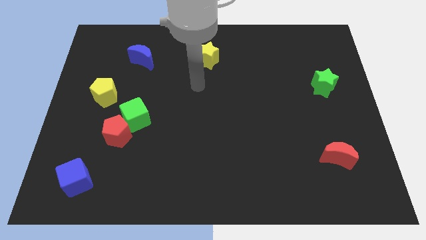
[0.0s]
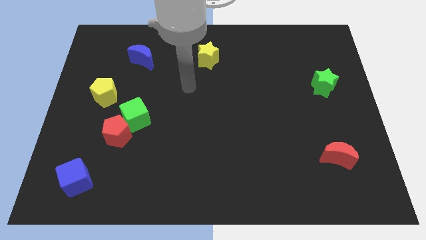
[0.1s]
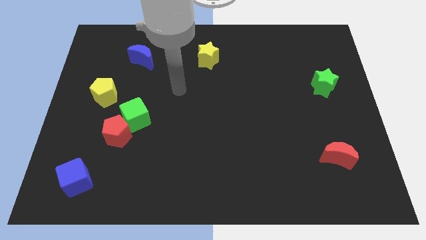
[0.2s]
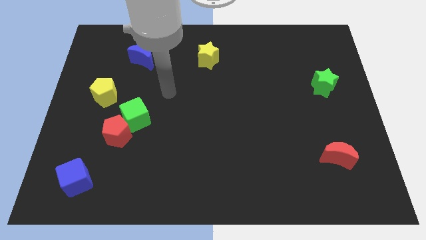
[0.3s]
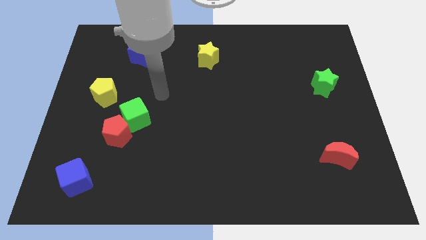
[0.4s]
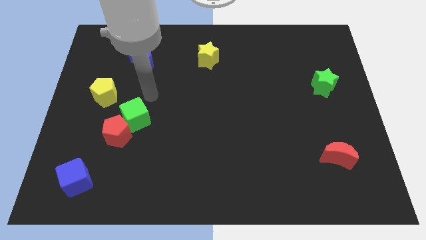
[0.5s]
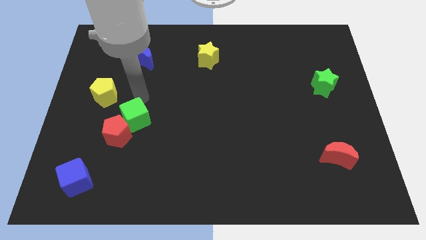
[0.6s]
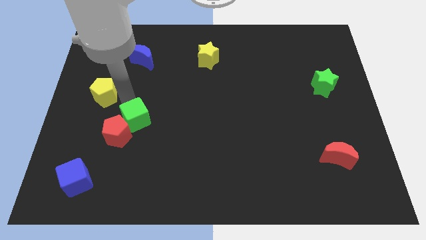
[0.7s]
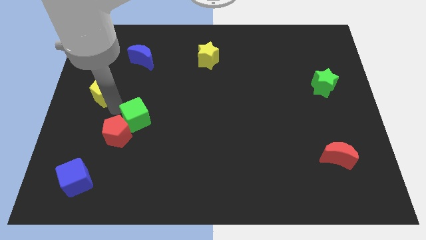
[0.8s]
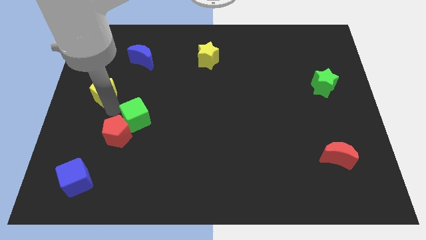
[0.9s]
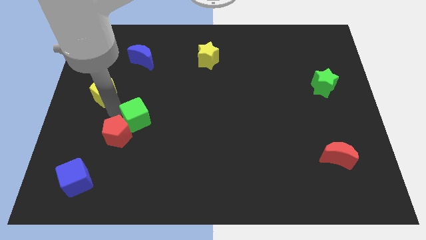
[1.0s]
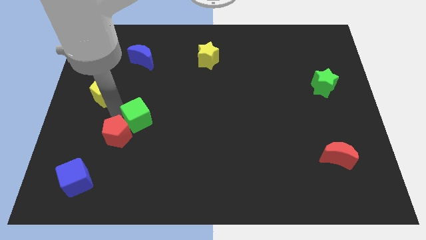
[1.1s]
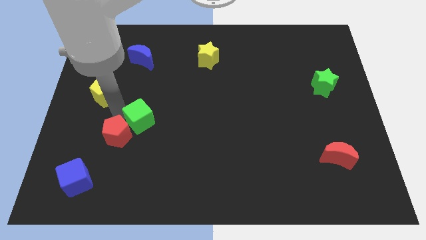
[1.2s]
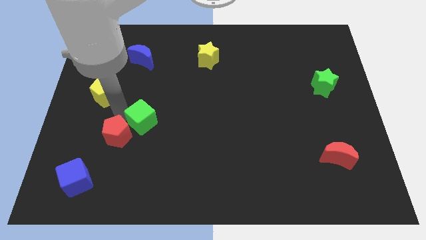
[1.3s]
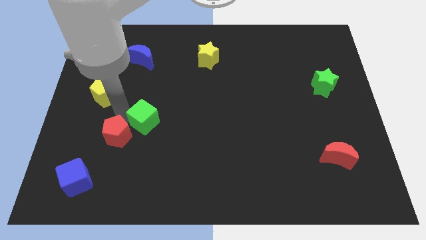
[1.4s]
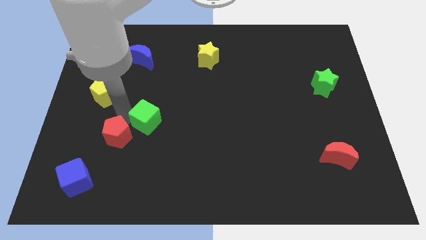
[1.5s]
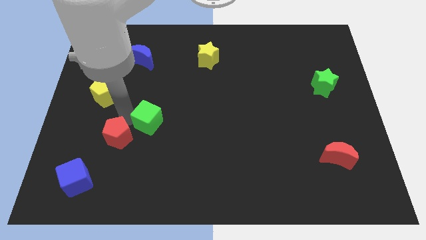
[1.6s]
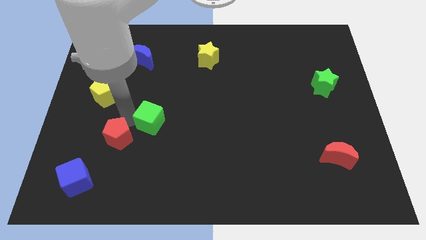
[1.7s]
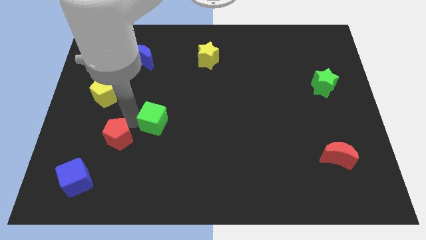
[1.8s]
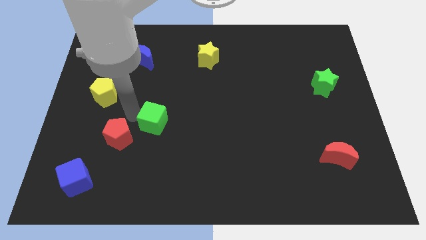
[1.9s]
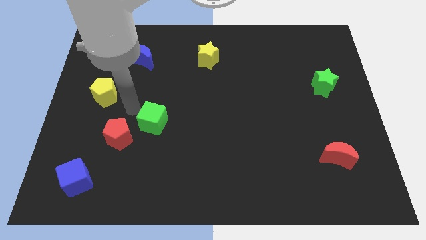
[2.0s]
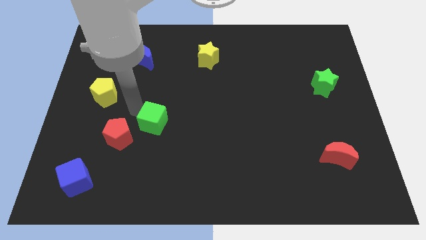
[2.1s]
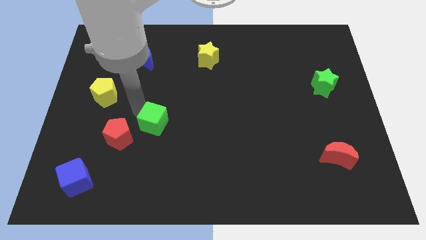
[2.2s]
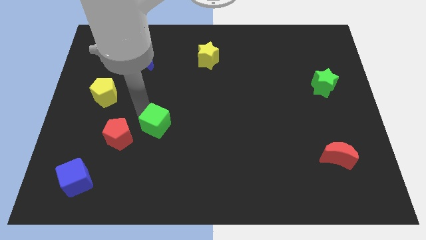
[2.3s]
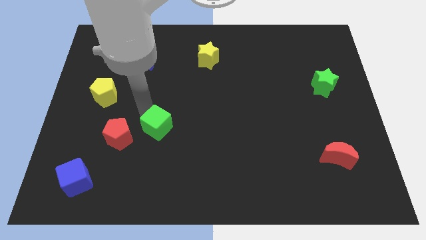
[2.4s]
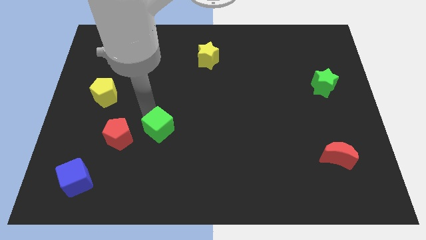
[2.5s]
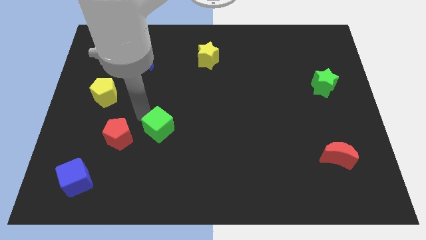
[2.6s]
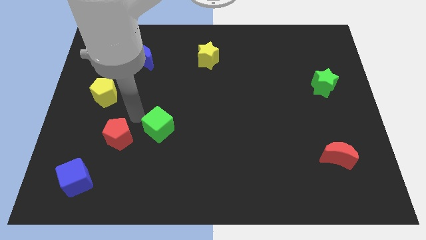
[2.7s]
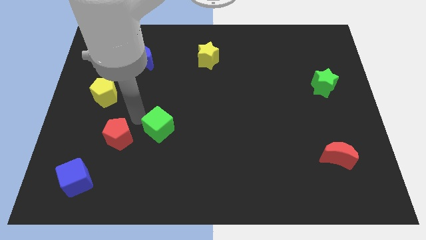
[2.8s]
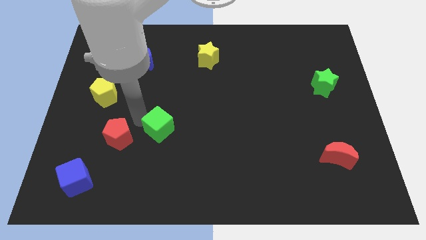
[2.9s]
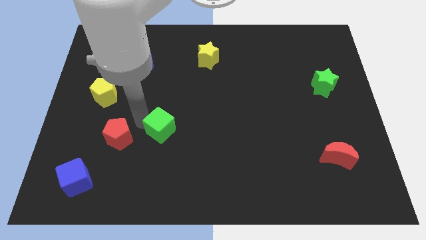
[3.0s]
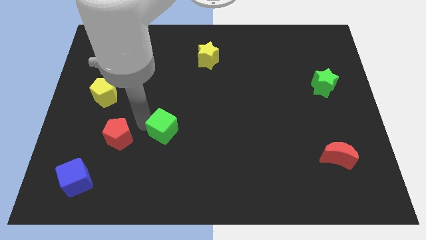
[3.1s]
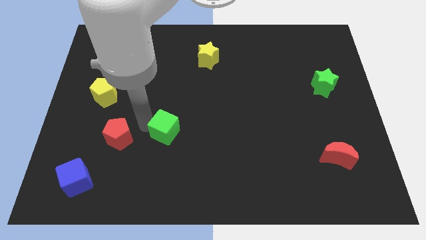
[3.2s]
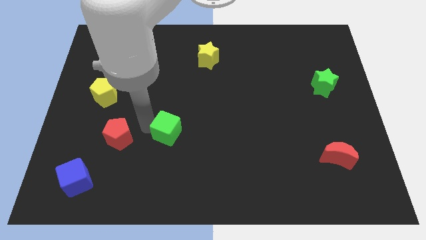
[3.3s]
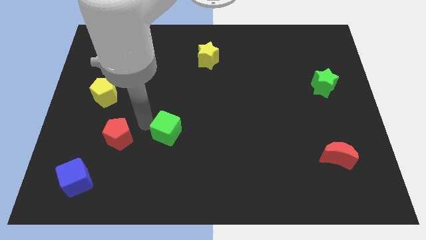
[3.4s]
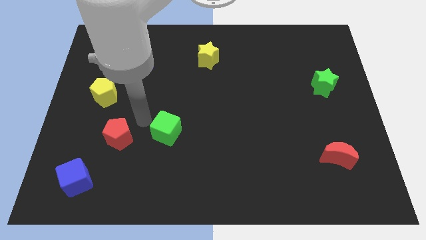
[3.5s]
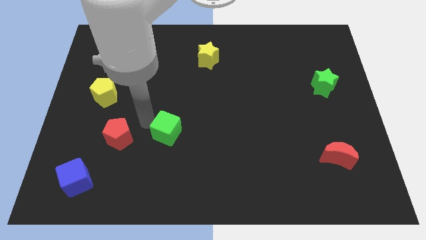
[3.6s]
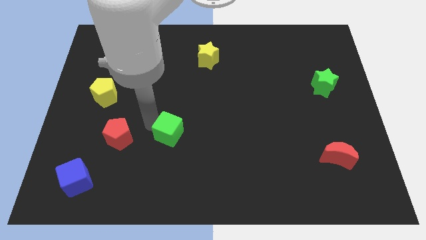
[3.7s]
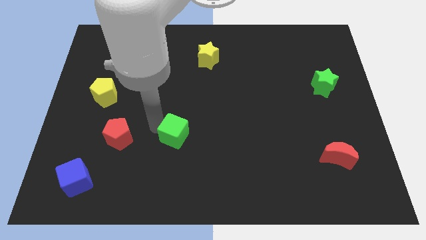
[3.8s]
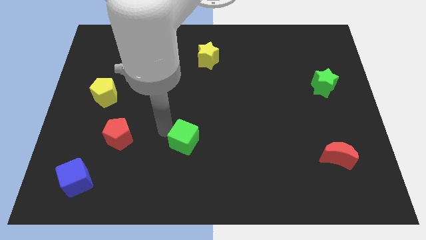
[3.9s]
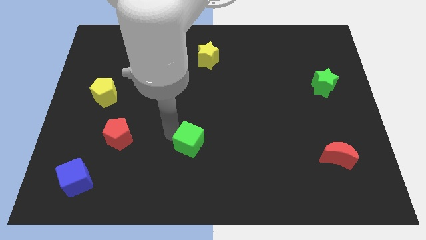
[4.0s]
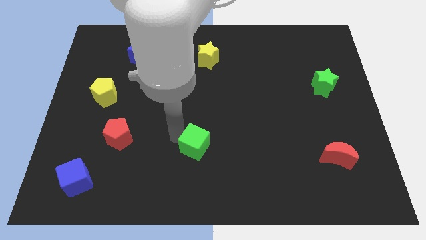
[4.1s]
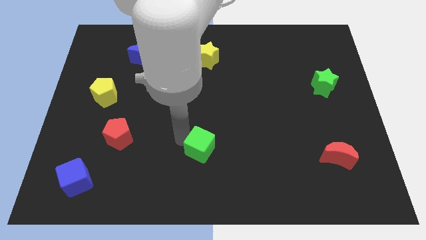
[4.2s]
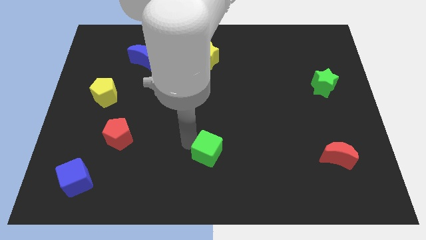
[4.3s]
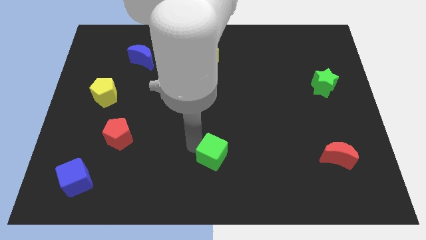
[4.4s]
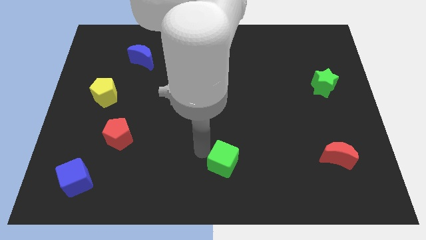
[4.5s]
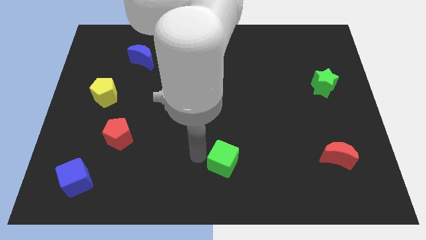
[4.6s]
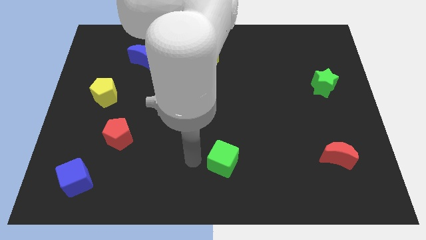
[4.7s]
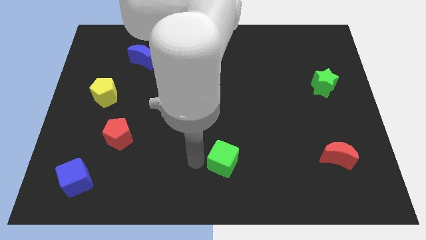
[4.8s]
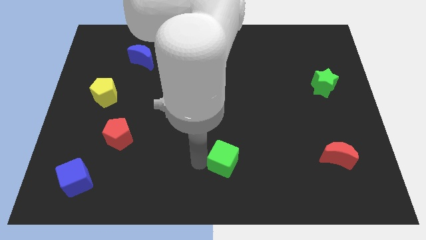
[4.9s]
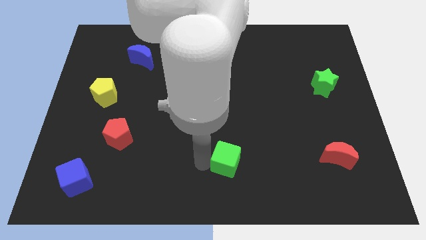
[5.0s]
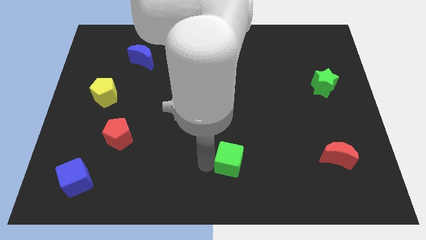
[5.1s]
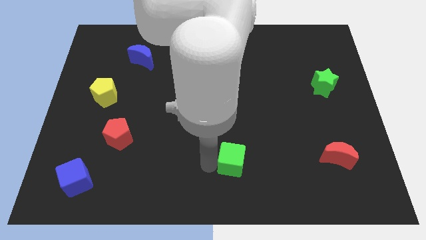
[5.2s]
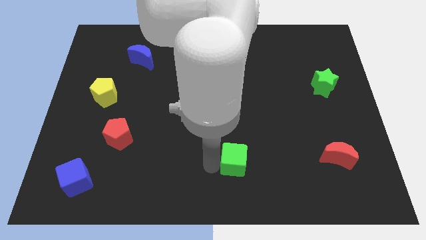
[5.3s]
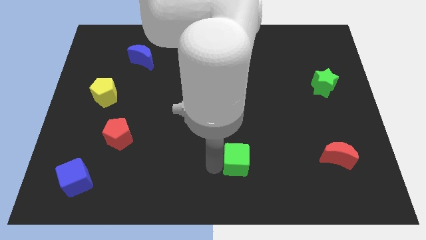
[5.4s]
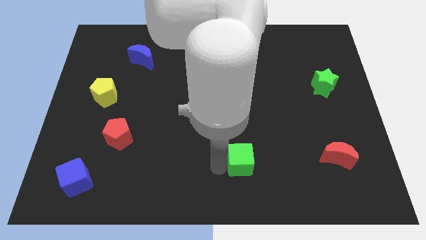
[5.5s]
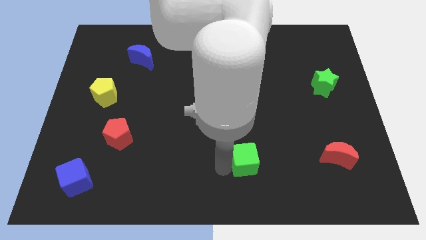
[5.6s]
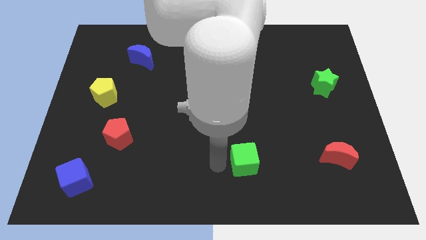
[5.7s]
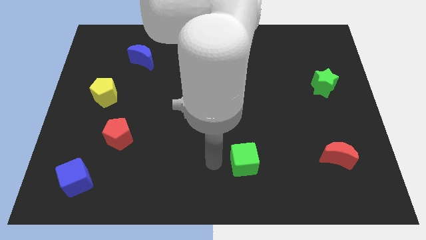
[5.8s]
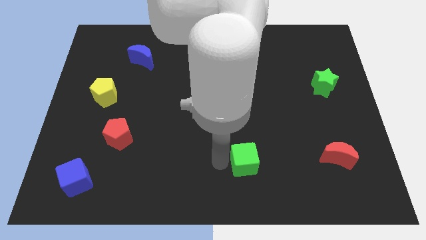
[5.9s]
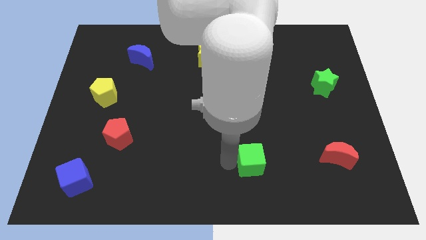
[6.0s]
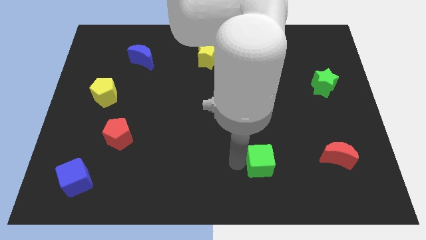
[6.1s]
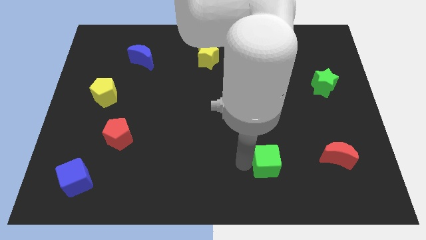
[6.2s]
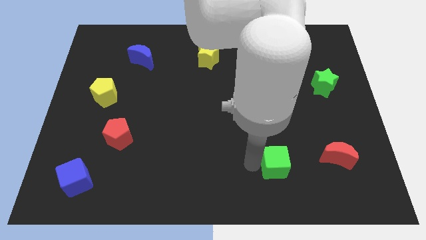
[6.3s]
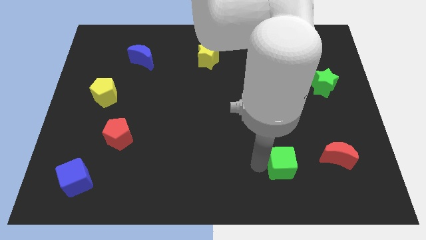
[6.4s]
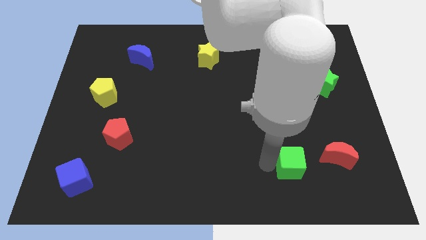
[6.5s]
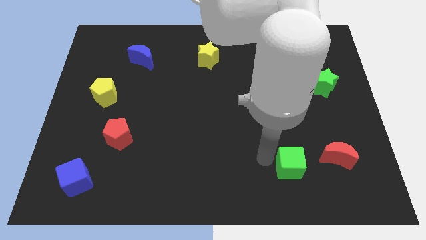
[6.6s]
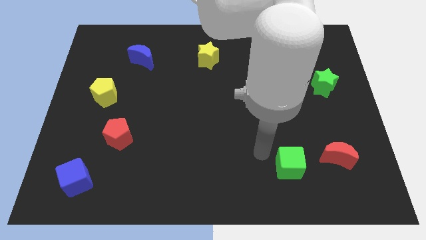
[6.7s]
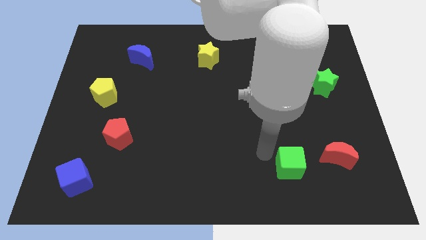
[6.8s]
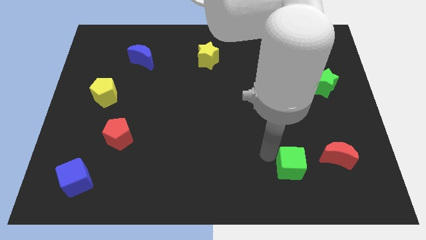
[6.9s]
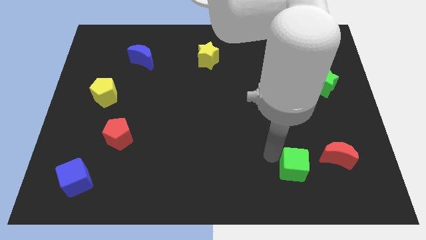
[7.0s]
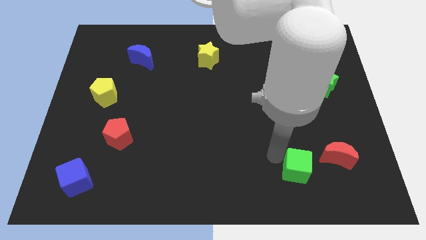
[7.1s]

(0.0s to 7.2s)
move the green cube to the bottom left side of the red moon
